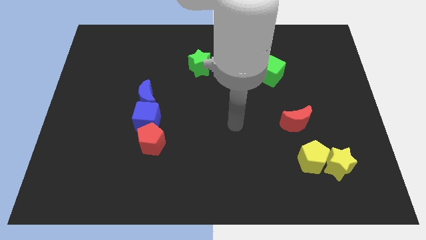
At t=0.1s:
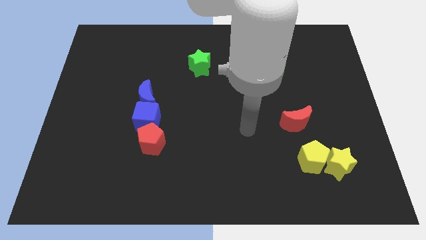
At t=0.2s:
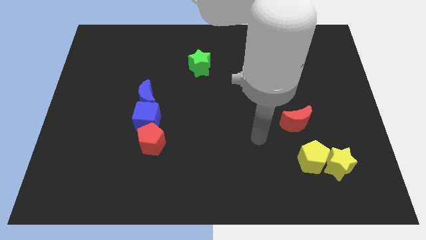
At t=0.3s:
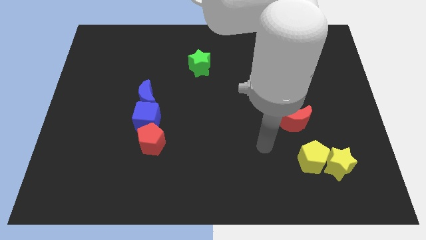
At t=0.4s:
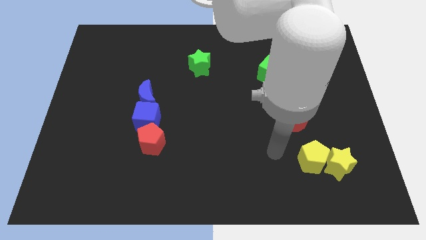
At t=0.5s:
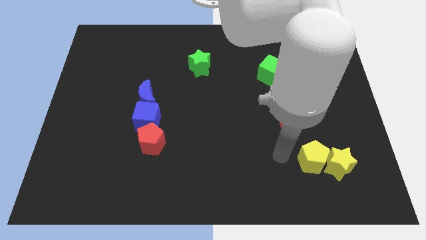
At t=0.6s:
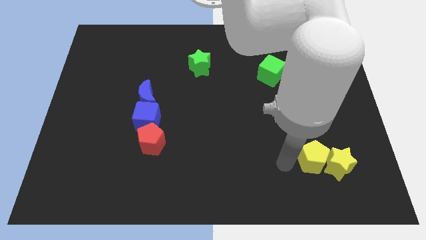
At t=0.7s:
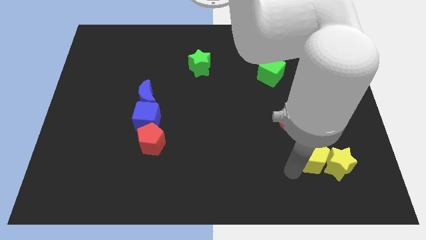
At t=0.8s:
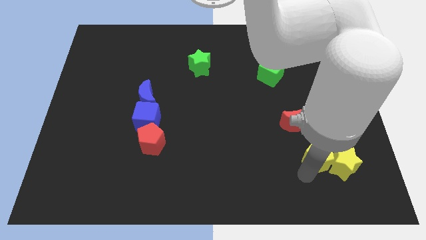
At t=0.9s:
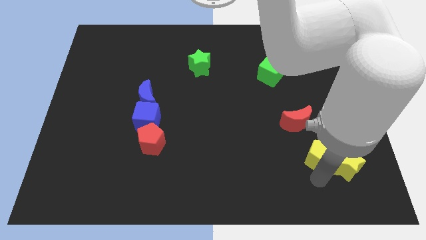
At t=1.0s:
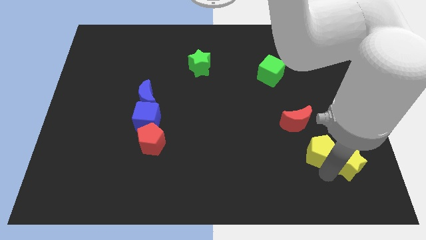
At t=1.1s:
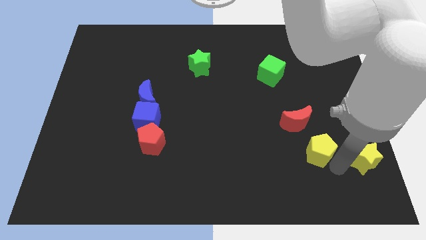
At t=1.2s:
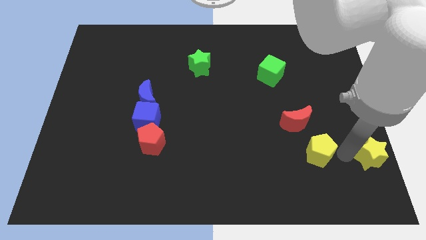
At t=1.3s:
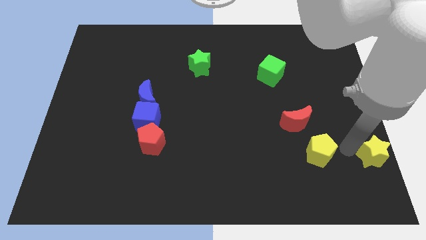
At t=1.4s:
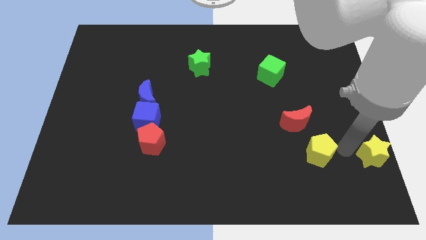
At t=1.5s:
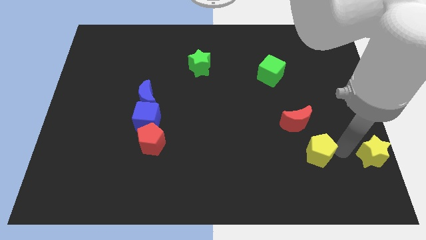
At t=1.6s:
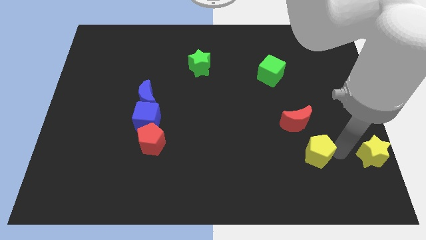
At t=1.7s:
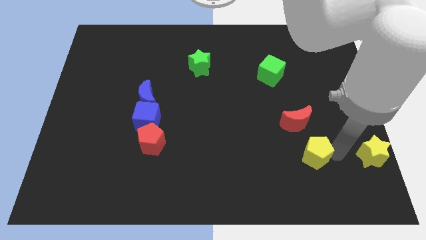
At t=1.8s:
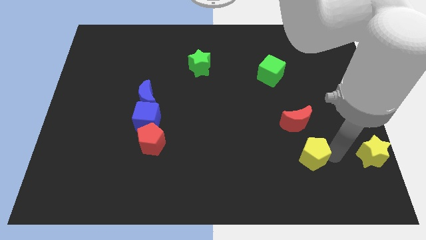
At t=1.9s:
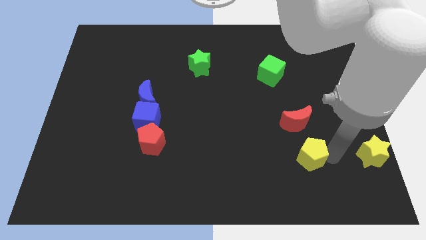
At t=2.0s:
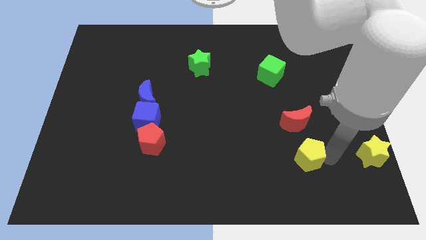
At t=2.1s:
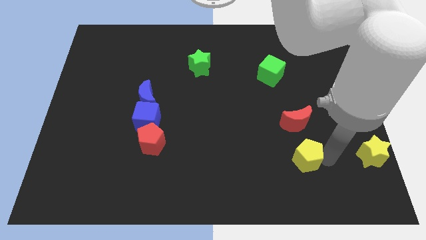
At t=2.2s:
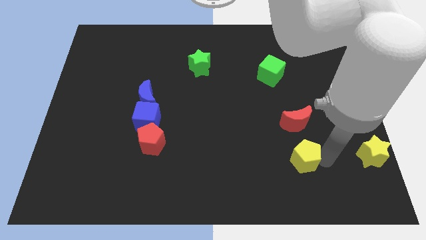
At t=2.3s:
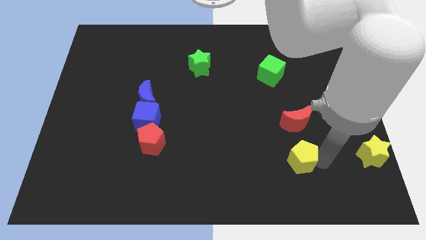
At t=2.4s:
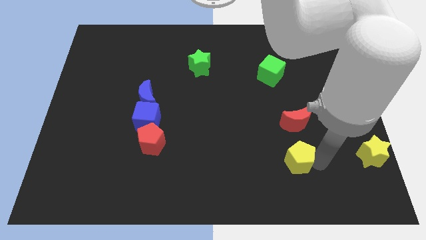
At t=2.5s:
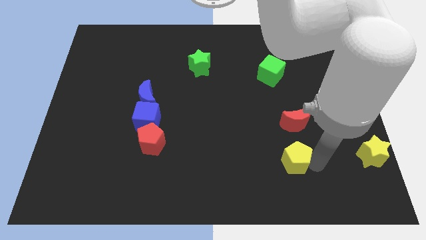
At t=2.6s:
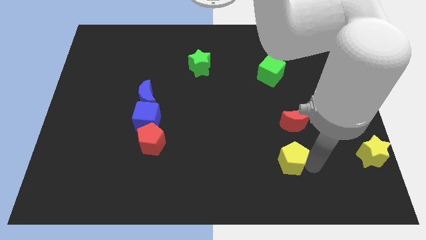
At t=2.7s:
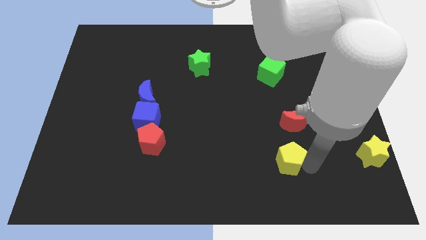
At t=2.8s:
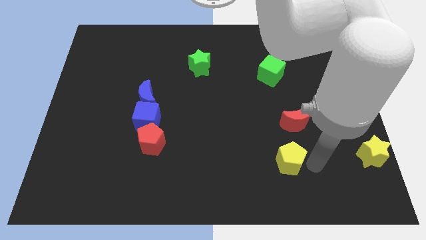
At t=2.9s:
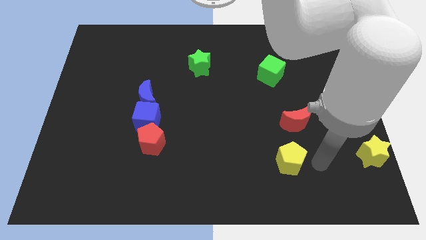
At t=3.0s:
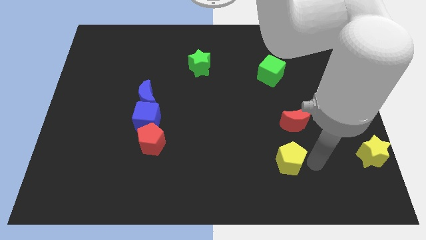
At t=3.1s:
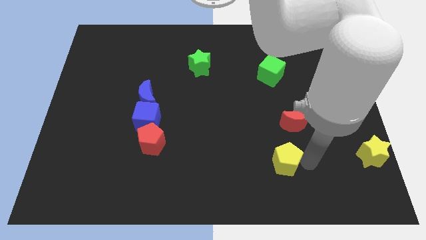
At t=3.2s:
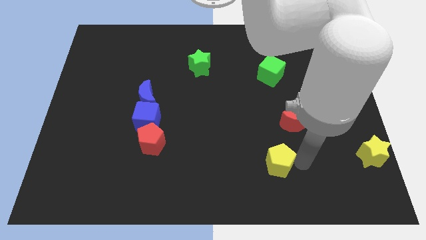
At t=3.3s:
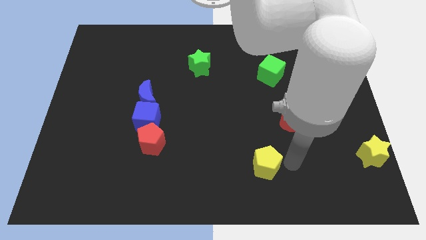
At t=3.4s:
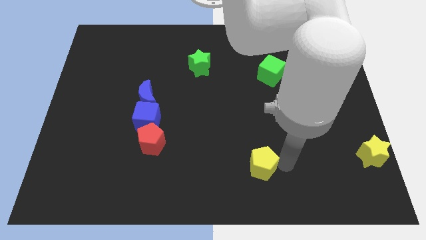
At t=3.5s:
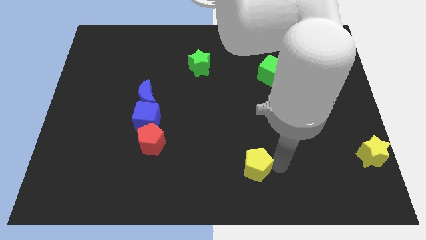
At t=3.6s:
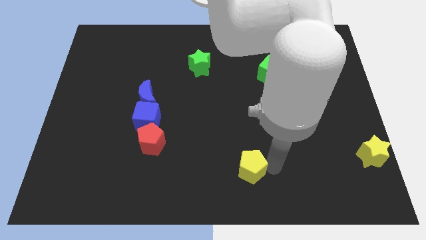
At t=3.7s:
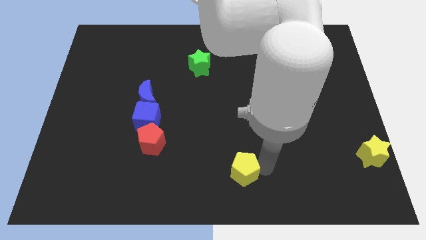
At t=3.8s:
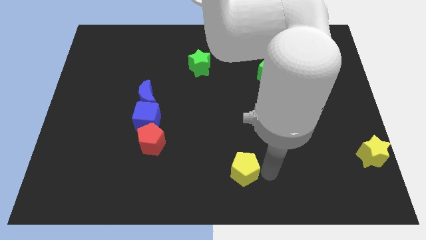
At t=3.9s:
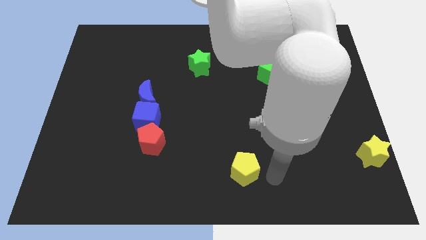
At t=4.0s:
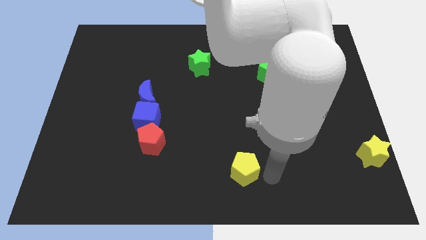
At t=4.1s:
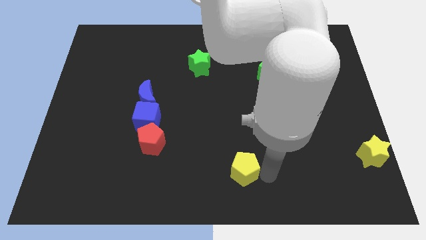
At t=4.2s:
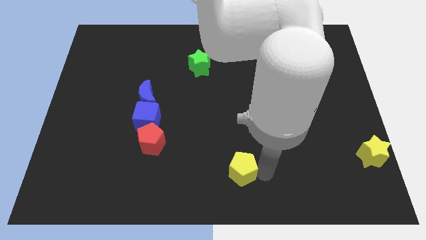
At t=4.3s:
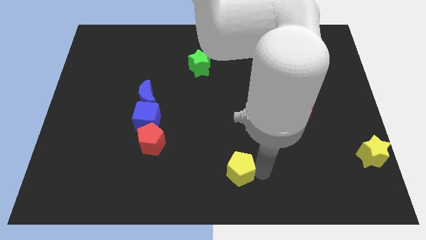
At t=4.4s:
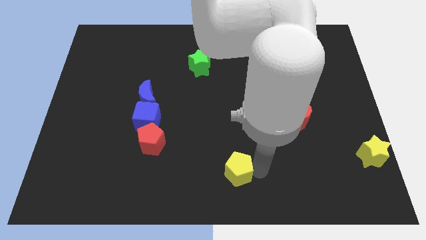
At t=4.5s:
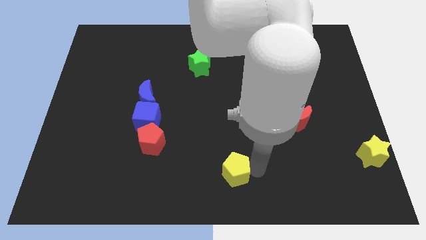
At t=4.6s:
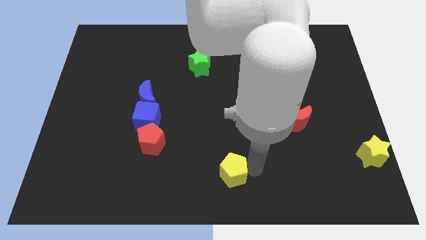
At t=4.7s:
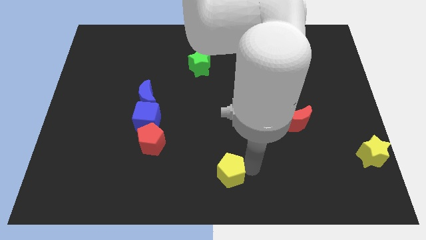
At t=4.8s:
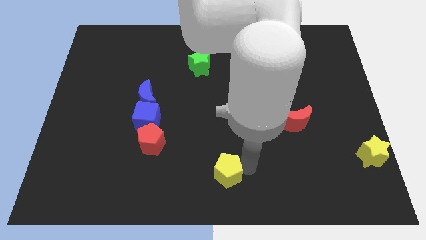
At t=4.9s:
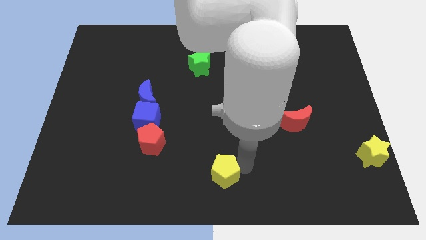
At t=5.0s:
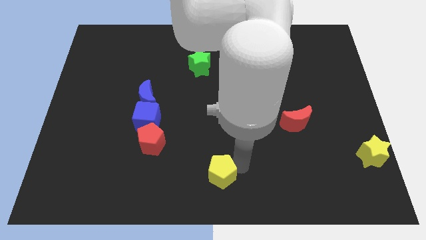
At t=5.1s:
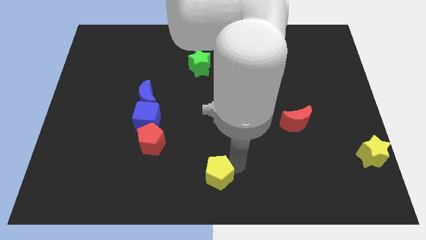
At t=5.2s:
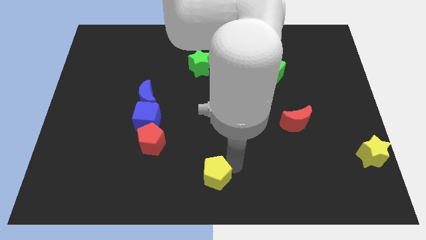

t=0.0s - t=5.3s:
push the yellow pentagon to the left

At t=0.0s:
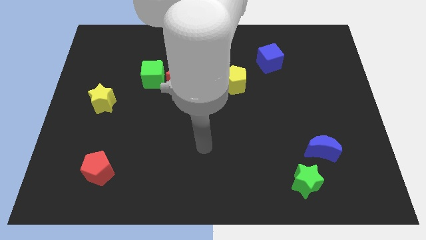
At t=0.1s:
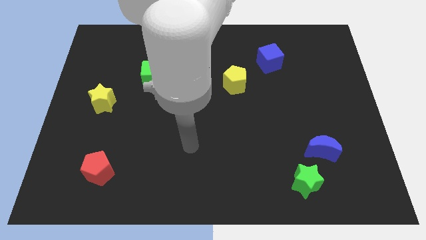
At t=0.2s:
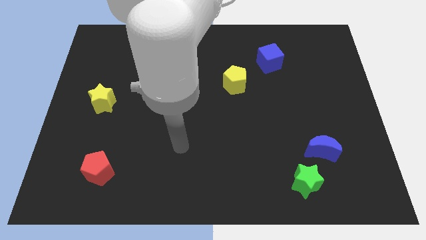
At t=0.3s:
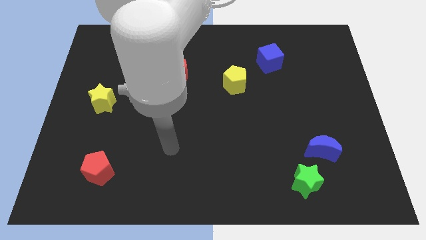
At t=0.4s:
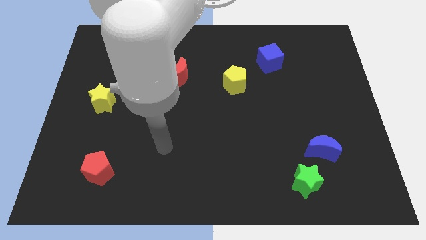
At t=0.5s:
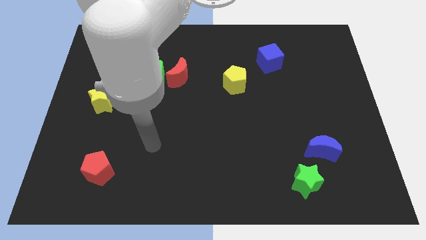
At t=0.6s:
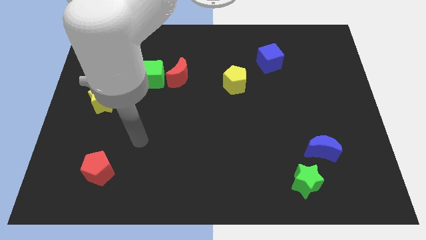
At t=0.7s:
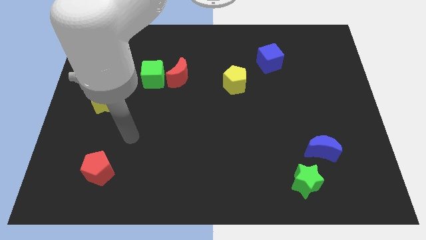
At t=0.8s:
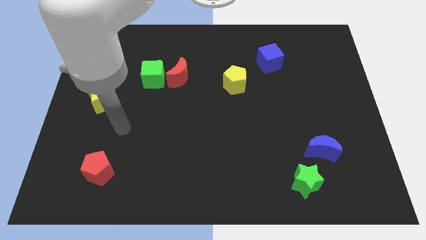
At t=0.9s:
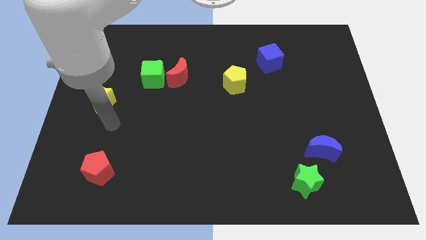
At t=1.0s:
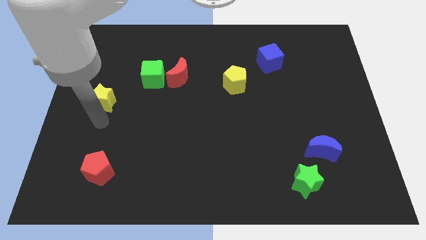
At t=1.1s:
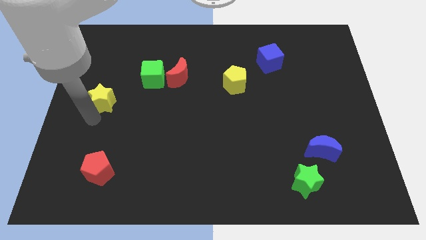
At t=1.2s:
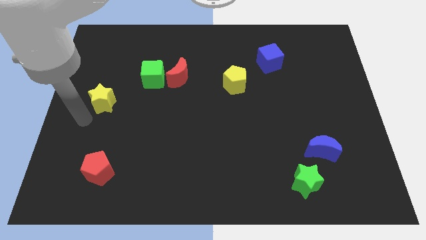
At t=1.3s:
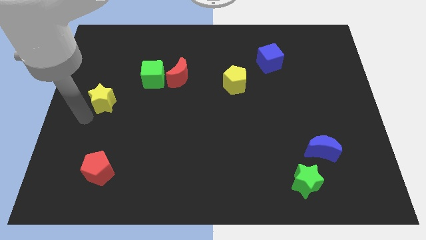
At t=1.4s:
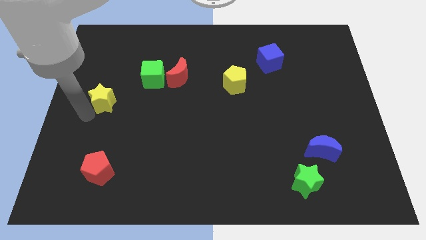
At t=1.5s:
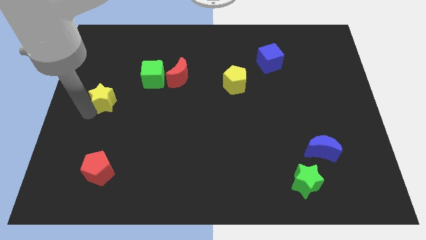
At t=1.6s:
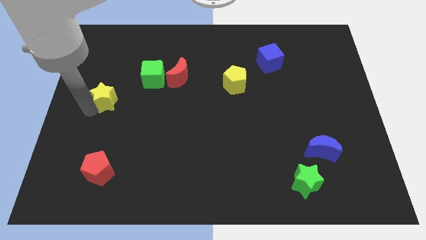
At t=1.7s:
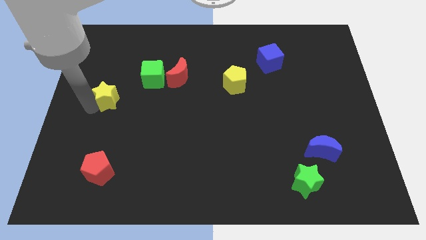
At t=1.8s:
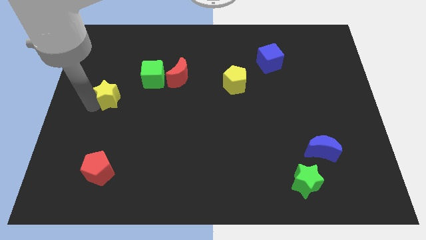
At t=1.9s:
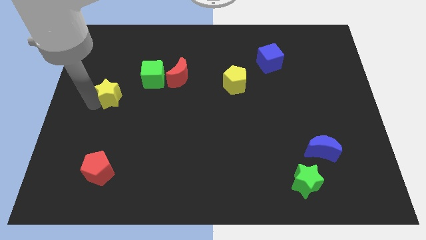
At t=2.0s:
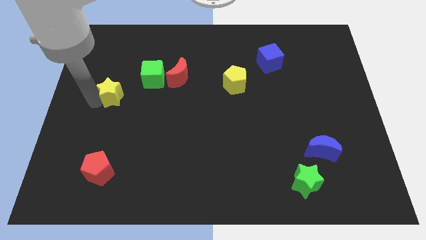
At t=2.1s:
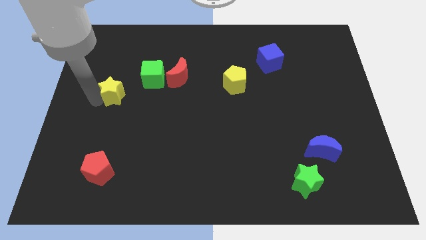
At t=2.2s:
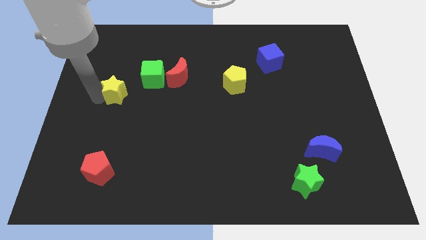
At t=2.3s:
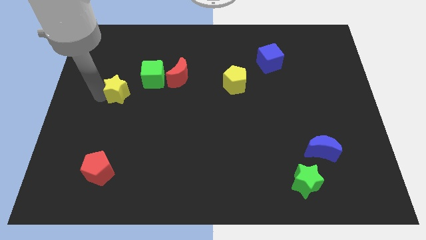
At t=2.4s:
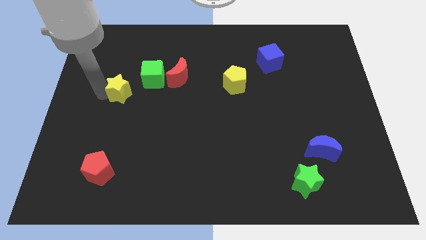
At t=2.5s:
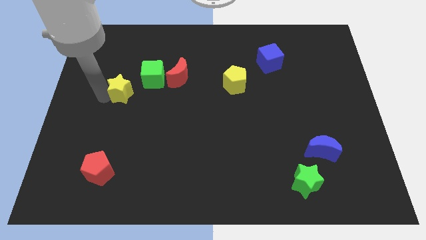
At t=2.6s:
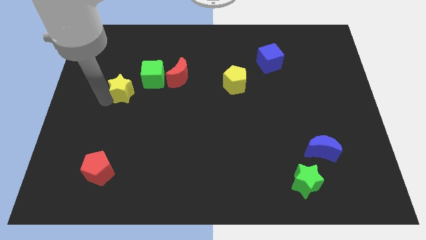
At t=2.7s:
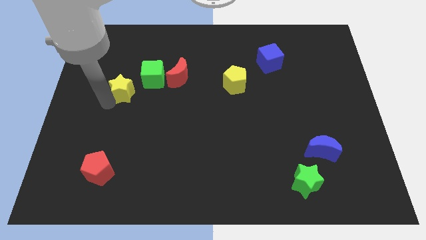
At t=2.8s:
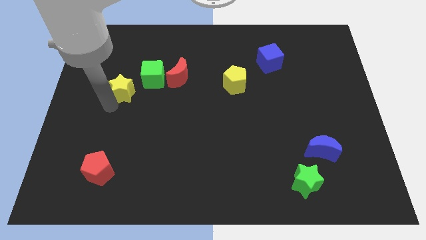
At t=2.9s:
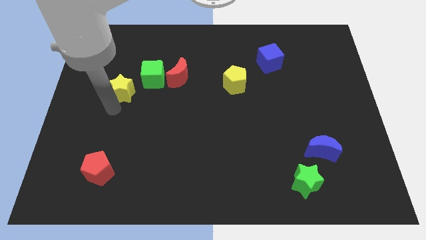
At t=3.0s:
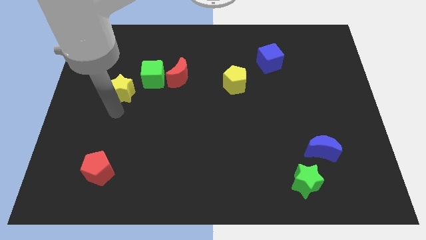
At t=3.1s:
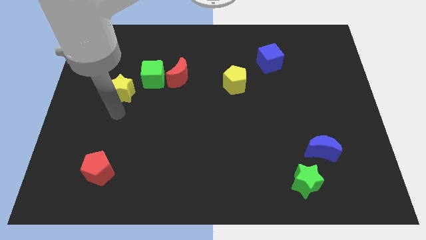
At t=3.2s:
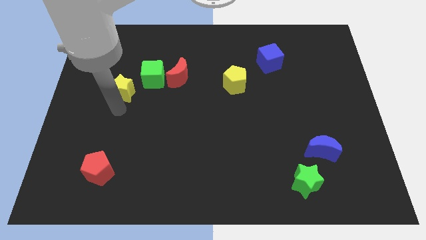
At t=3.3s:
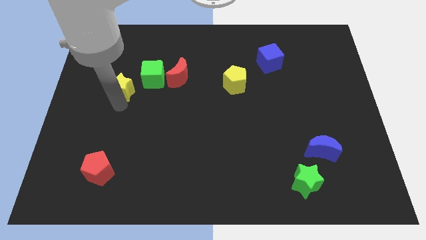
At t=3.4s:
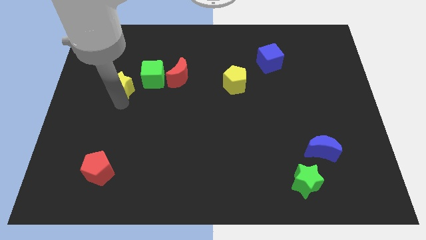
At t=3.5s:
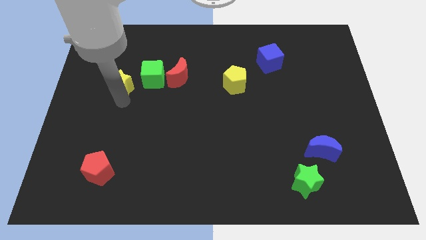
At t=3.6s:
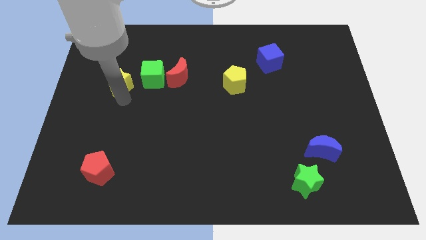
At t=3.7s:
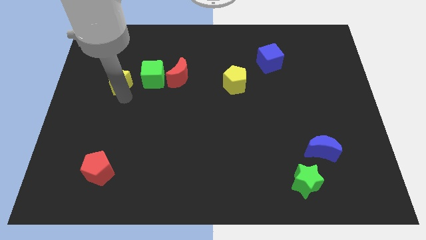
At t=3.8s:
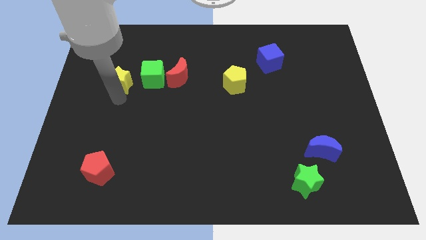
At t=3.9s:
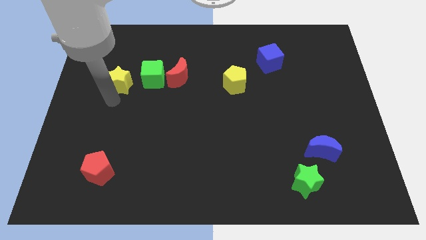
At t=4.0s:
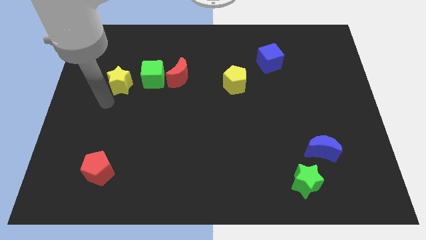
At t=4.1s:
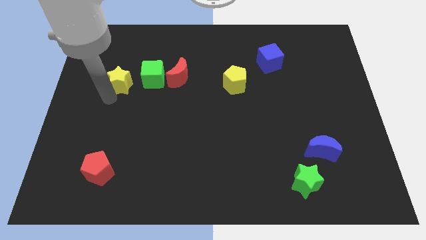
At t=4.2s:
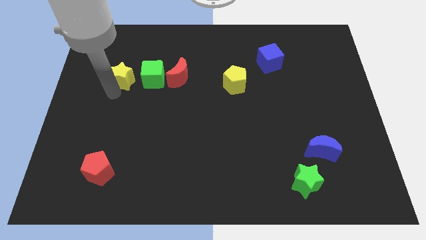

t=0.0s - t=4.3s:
slide the yellow star a little upwards and then to the right
